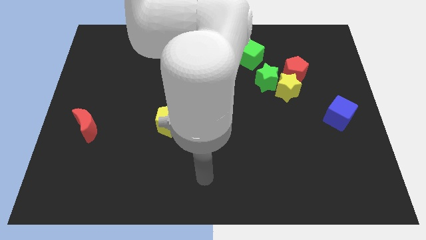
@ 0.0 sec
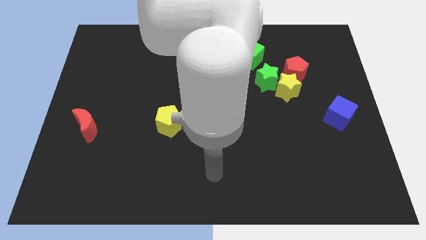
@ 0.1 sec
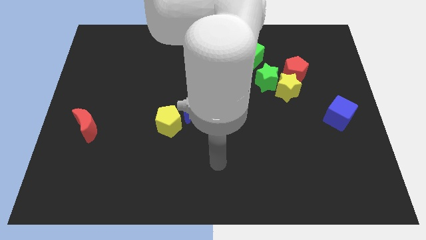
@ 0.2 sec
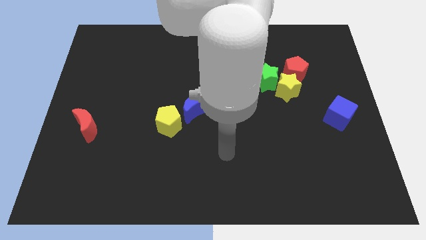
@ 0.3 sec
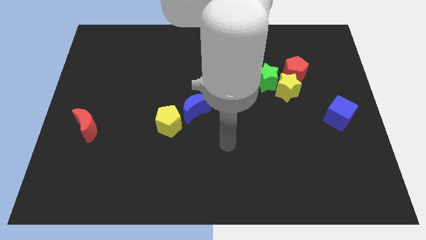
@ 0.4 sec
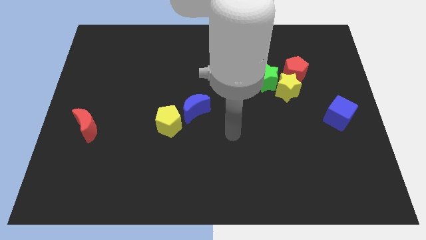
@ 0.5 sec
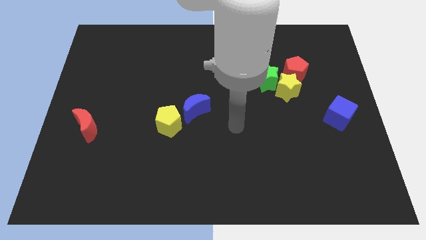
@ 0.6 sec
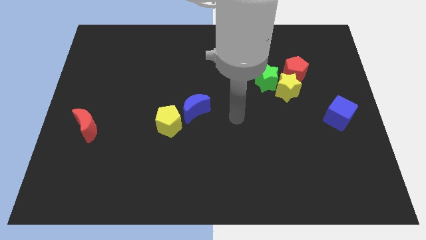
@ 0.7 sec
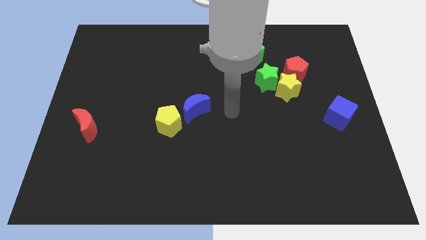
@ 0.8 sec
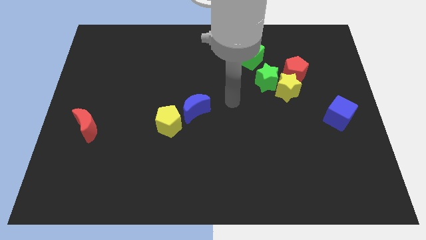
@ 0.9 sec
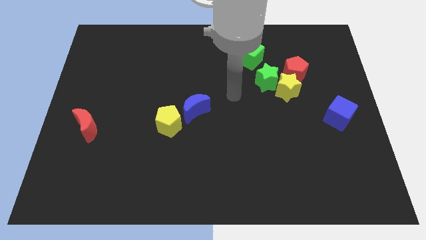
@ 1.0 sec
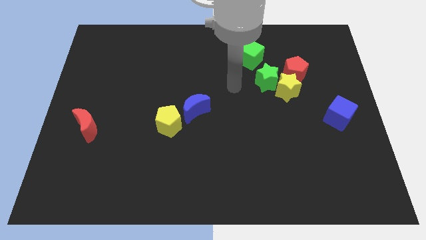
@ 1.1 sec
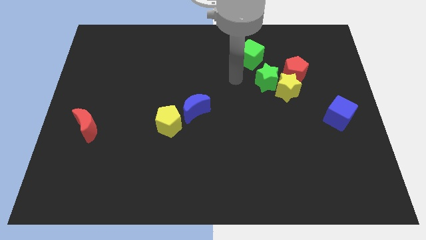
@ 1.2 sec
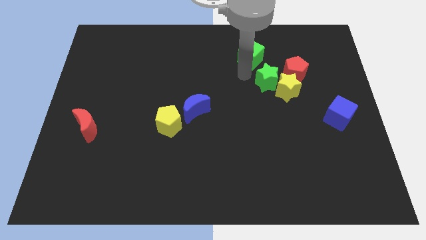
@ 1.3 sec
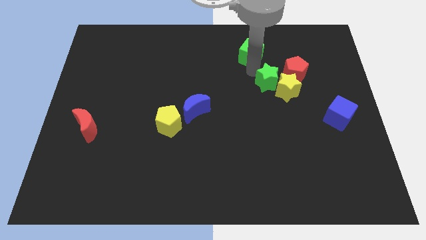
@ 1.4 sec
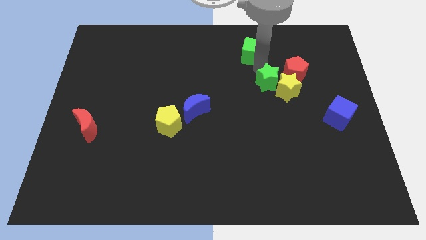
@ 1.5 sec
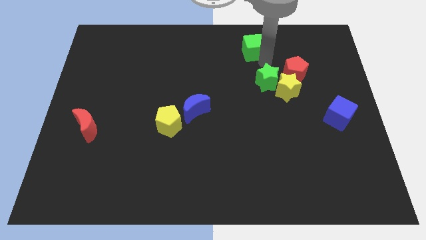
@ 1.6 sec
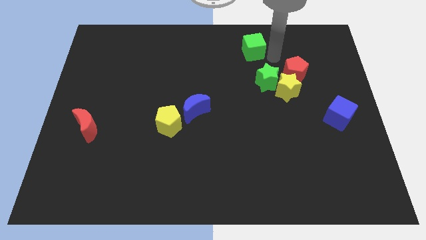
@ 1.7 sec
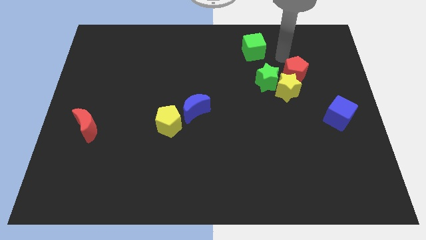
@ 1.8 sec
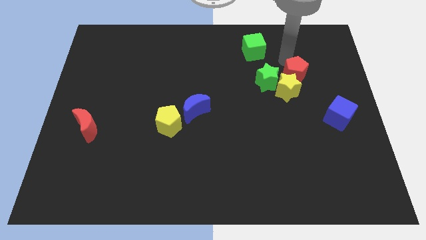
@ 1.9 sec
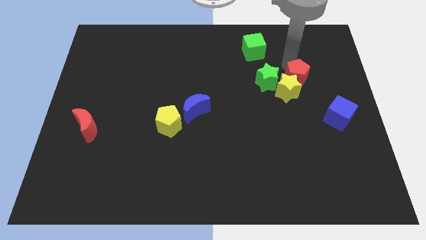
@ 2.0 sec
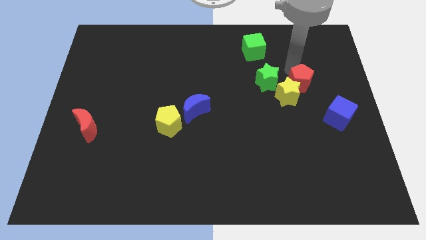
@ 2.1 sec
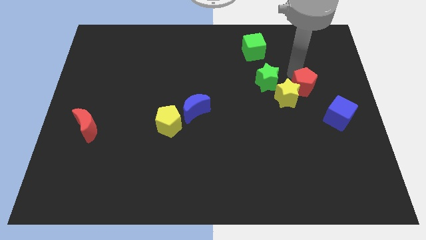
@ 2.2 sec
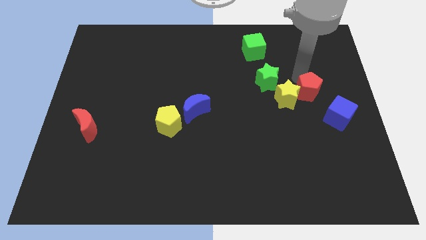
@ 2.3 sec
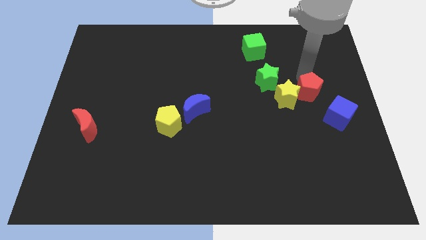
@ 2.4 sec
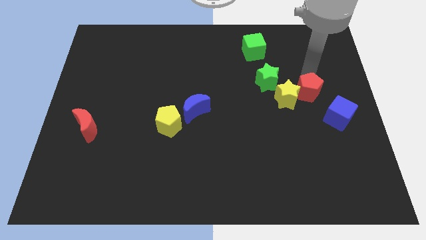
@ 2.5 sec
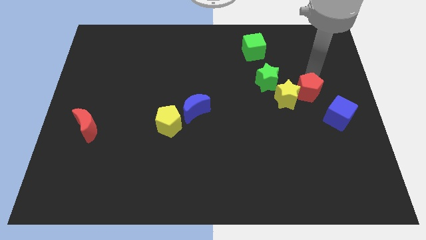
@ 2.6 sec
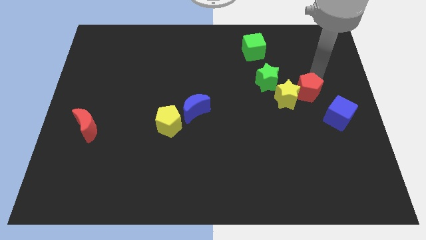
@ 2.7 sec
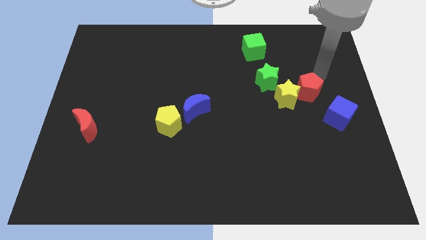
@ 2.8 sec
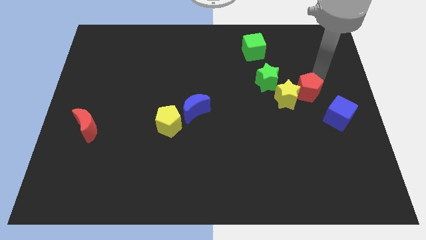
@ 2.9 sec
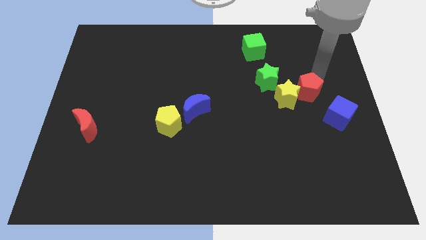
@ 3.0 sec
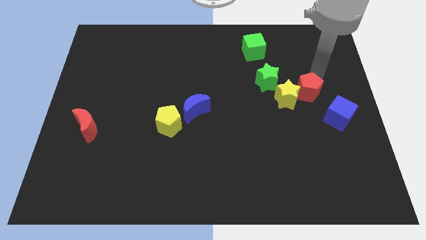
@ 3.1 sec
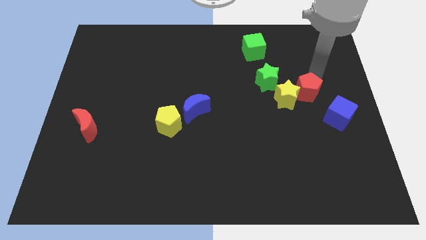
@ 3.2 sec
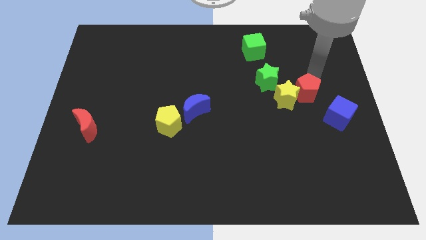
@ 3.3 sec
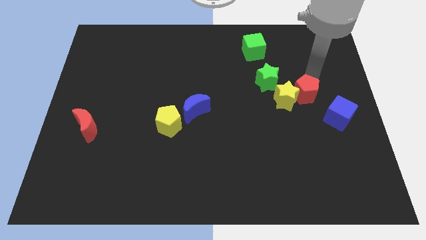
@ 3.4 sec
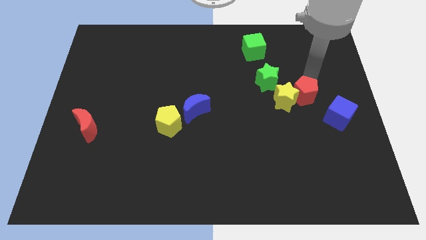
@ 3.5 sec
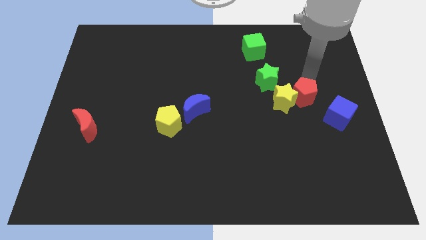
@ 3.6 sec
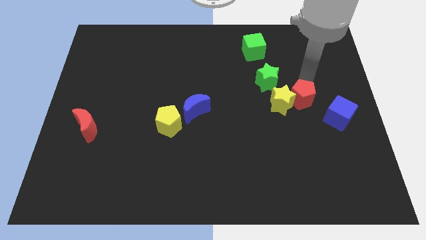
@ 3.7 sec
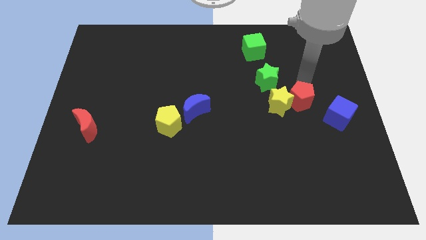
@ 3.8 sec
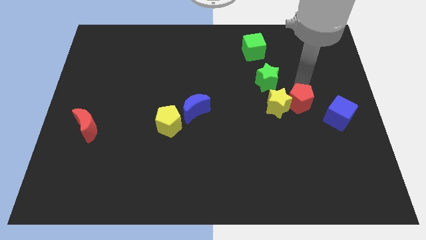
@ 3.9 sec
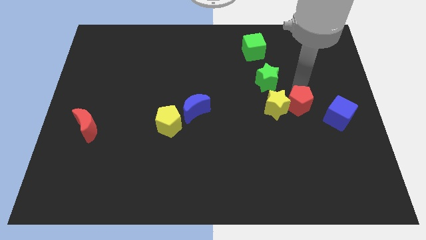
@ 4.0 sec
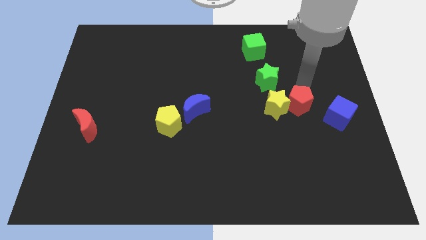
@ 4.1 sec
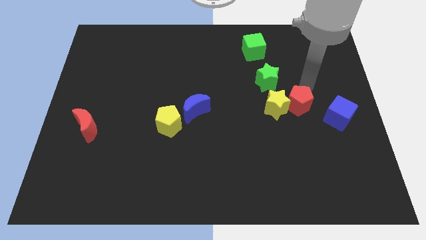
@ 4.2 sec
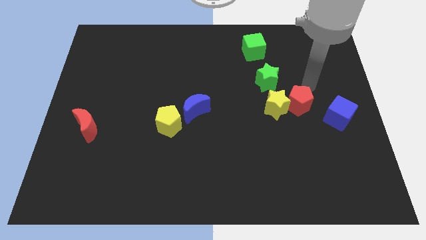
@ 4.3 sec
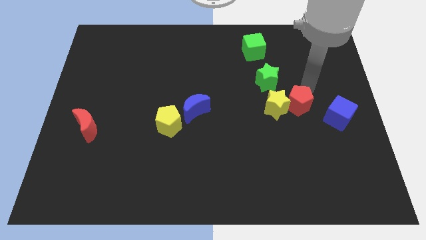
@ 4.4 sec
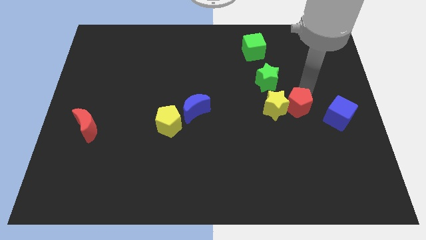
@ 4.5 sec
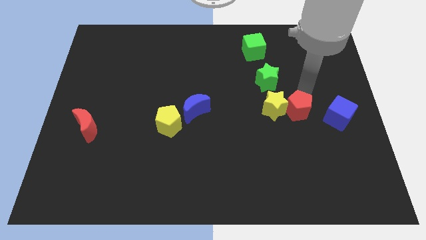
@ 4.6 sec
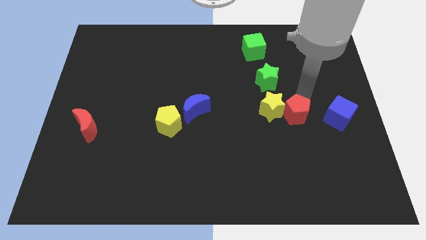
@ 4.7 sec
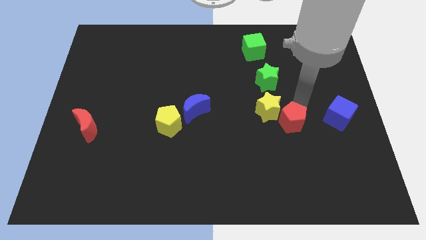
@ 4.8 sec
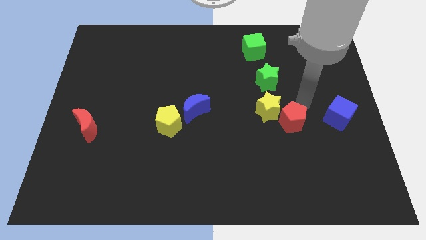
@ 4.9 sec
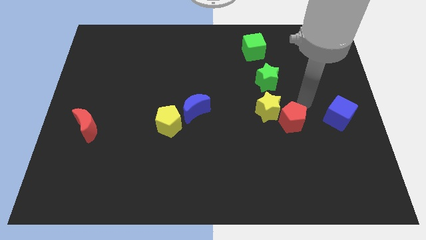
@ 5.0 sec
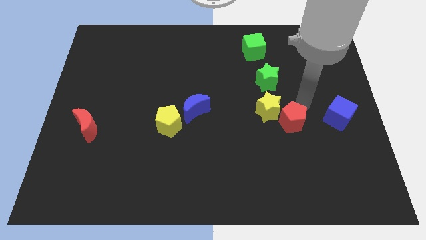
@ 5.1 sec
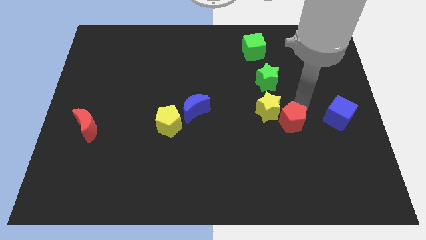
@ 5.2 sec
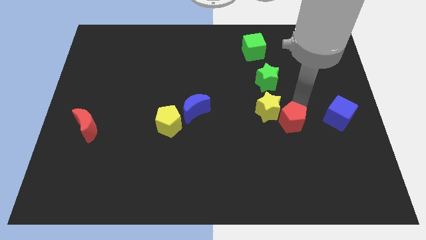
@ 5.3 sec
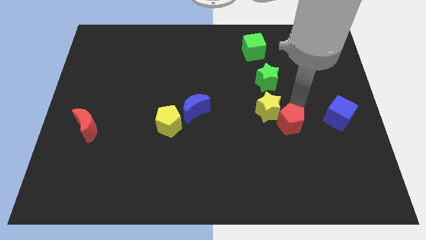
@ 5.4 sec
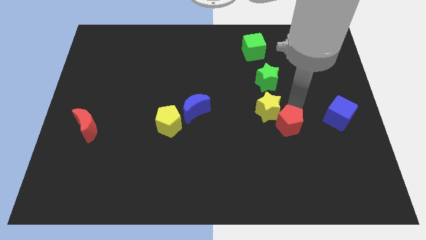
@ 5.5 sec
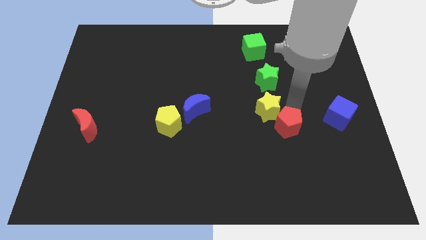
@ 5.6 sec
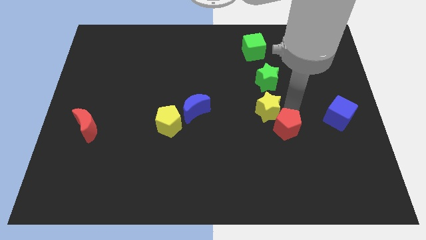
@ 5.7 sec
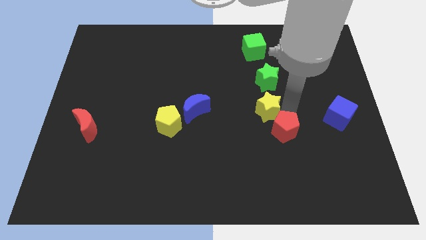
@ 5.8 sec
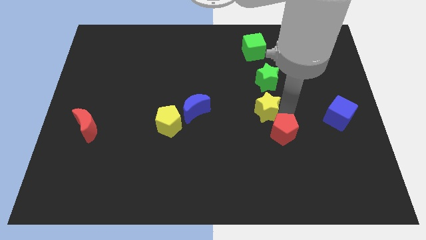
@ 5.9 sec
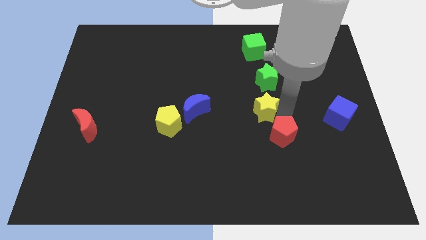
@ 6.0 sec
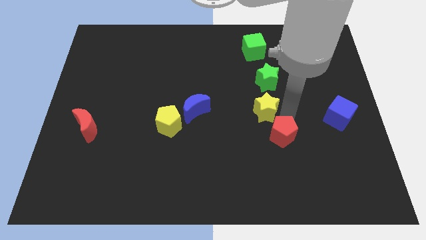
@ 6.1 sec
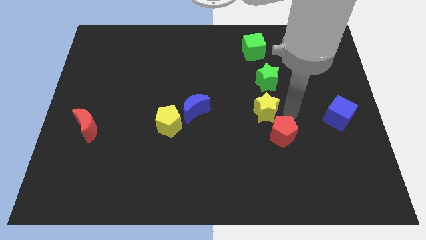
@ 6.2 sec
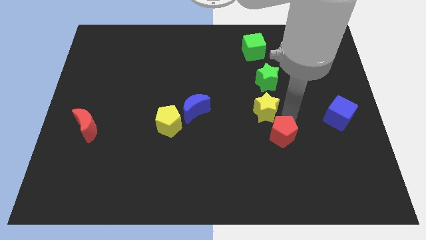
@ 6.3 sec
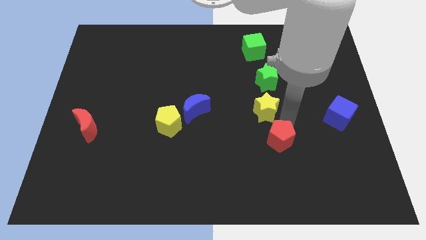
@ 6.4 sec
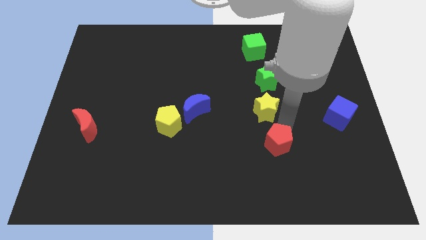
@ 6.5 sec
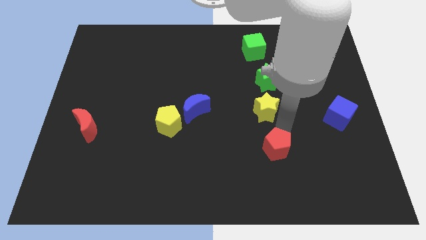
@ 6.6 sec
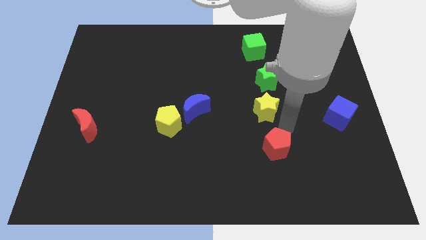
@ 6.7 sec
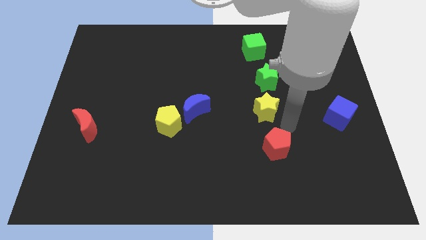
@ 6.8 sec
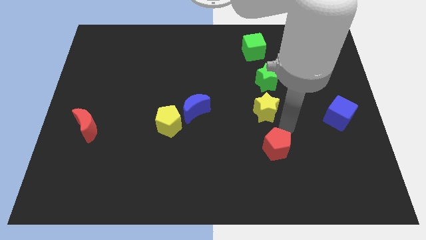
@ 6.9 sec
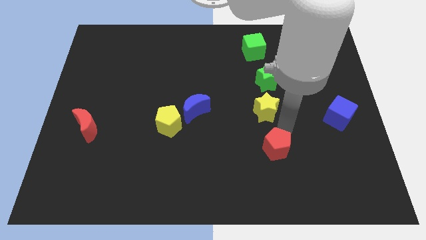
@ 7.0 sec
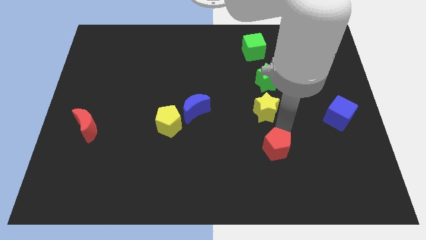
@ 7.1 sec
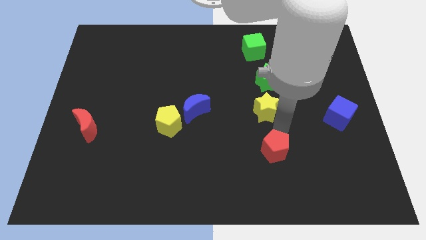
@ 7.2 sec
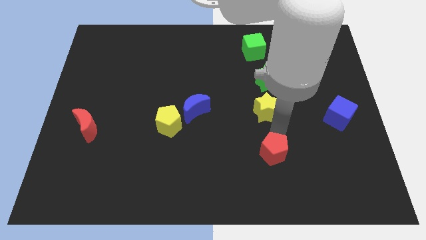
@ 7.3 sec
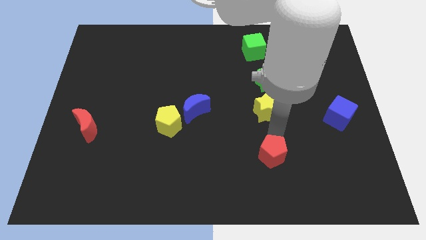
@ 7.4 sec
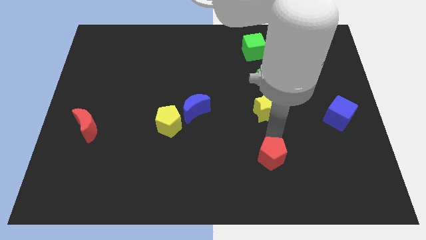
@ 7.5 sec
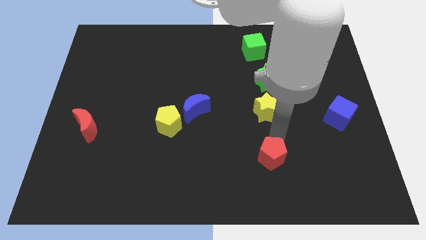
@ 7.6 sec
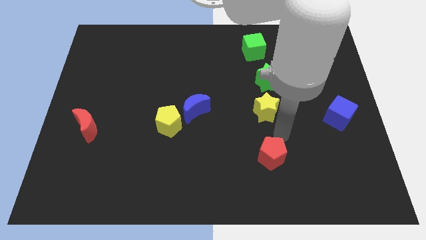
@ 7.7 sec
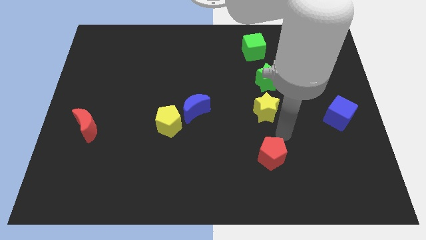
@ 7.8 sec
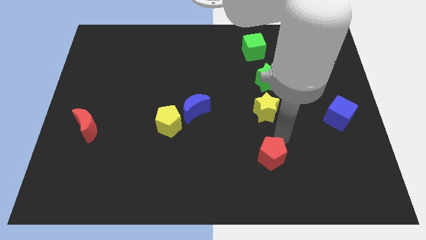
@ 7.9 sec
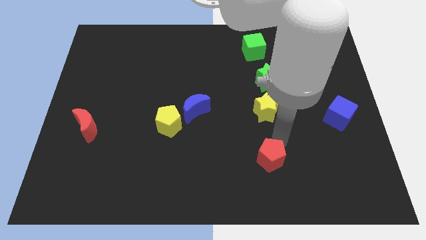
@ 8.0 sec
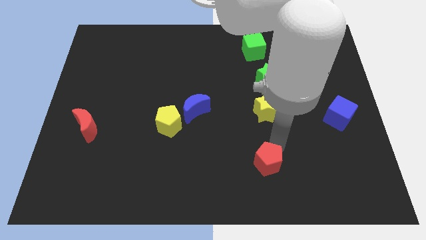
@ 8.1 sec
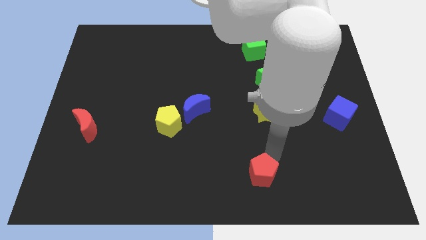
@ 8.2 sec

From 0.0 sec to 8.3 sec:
push the red pentagon to the bottom side
